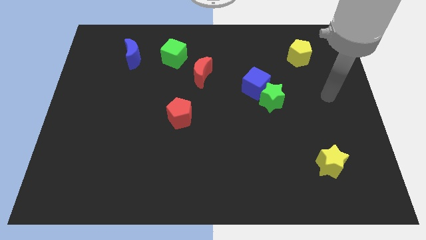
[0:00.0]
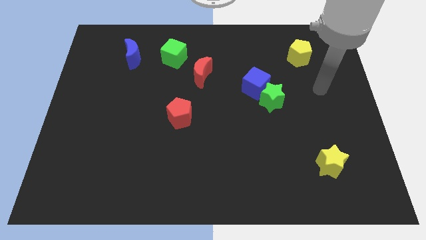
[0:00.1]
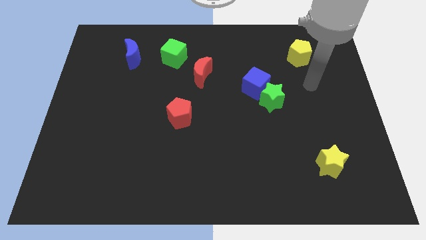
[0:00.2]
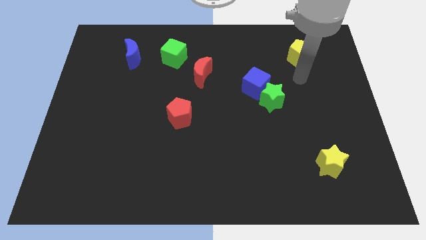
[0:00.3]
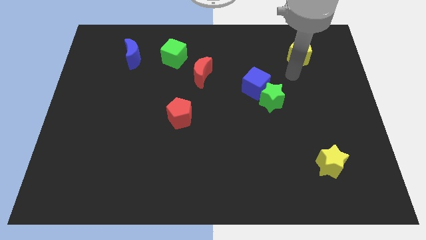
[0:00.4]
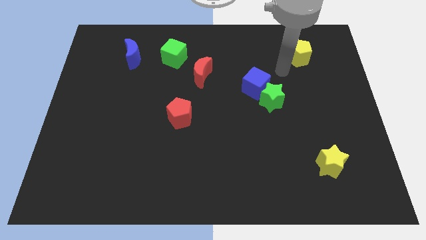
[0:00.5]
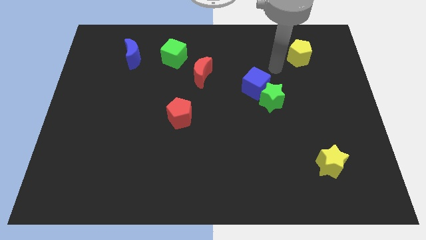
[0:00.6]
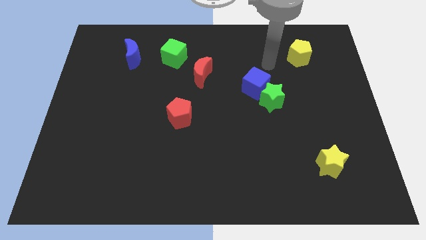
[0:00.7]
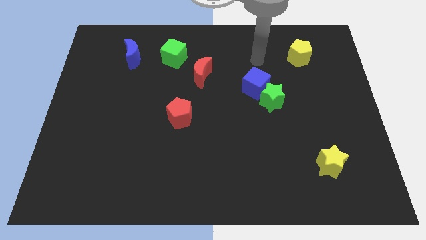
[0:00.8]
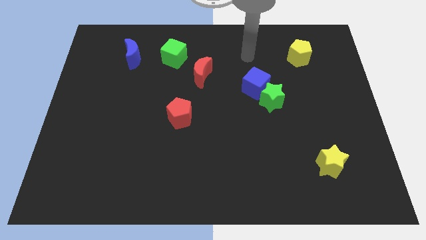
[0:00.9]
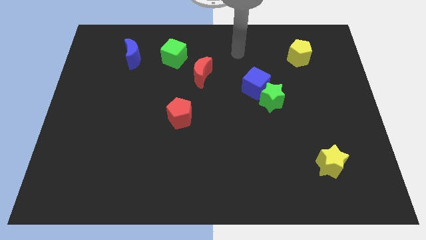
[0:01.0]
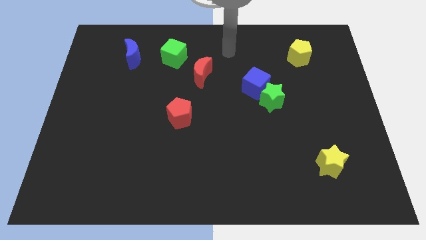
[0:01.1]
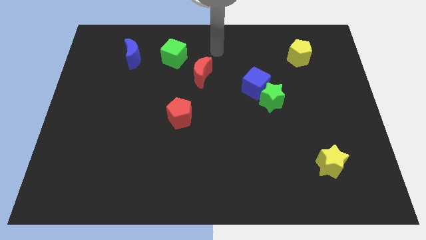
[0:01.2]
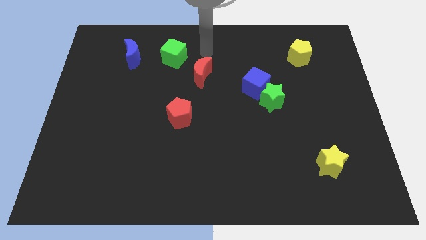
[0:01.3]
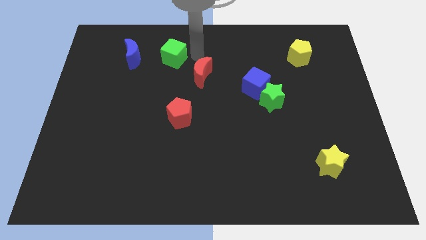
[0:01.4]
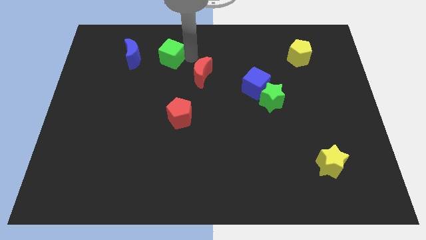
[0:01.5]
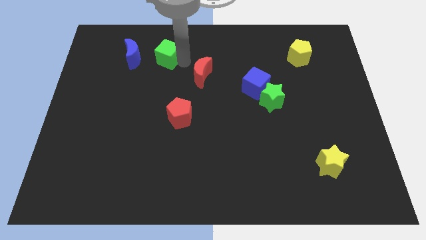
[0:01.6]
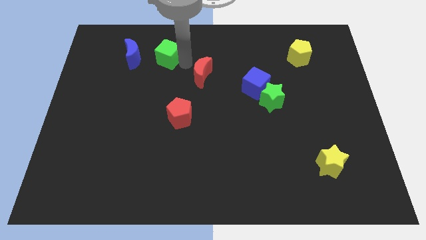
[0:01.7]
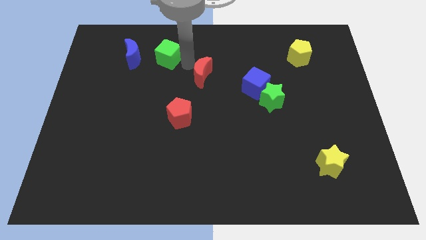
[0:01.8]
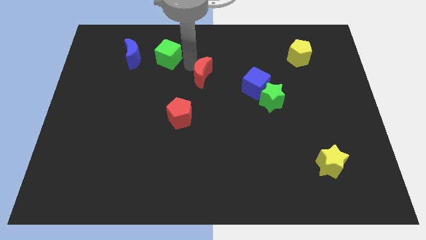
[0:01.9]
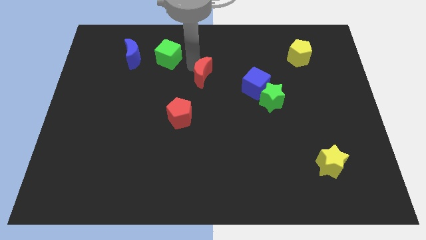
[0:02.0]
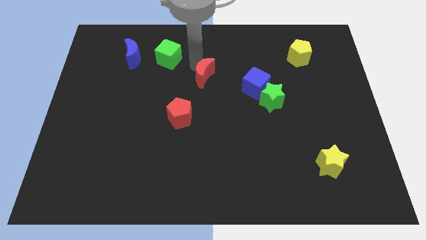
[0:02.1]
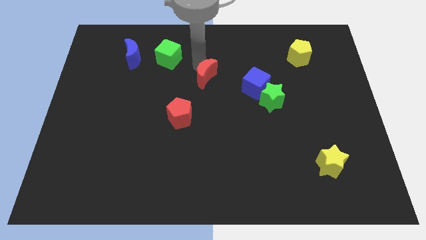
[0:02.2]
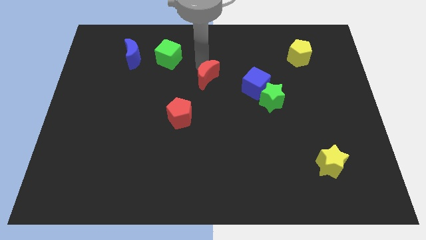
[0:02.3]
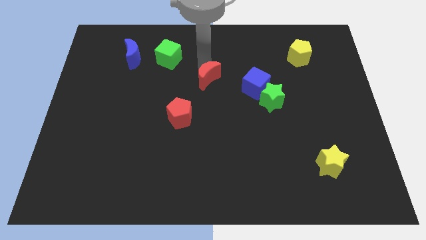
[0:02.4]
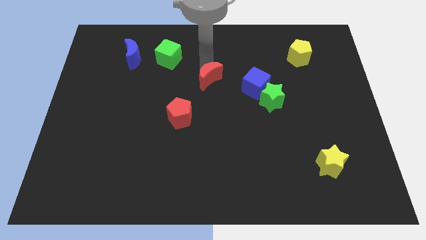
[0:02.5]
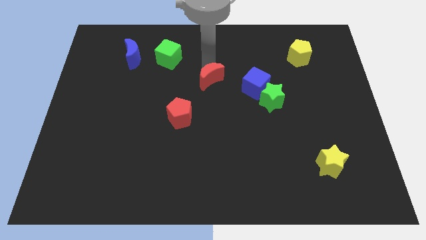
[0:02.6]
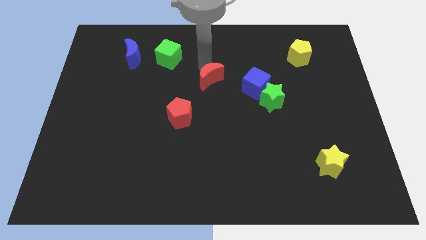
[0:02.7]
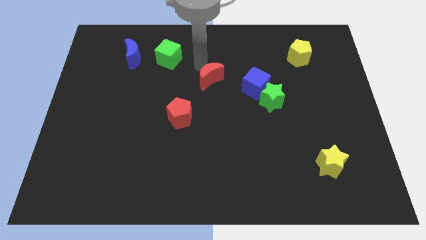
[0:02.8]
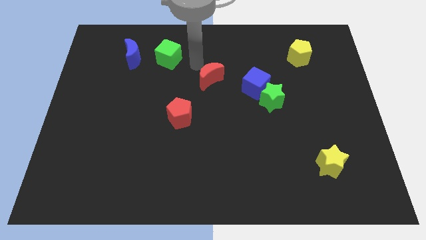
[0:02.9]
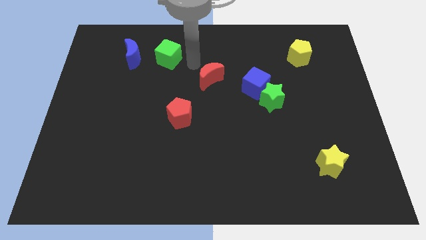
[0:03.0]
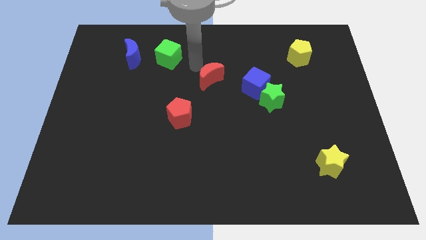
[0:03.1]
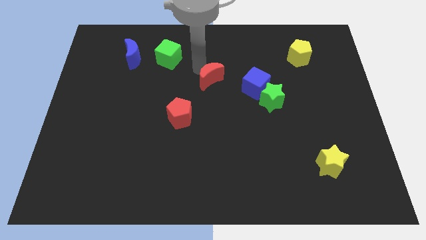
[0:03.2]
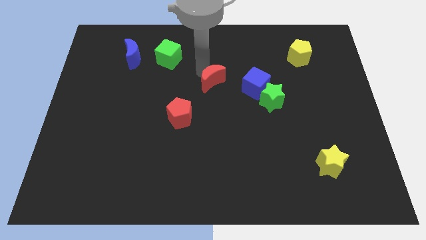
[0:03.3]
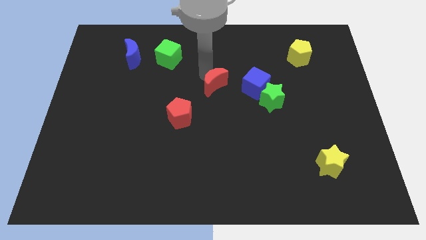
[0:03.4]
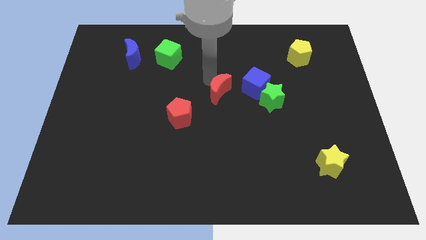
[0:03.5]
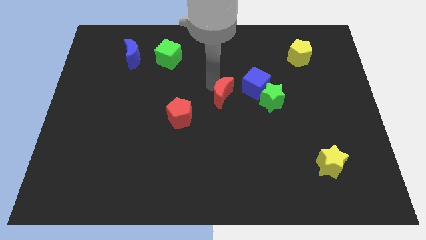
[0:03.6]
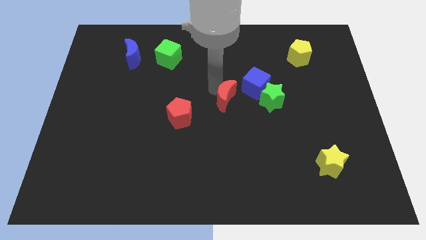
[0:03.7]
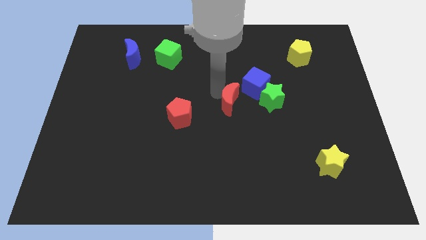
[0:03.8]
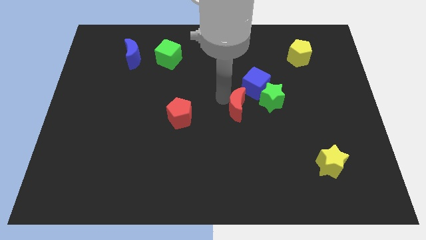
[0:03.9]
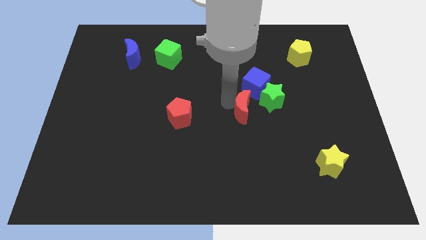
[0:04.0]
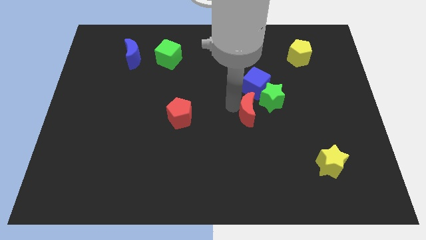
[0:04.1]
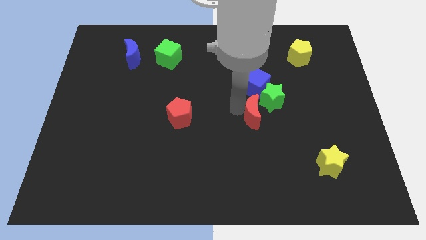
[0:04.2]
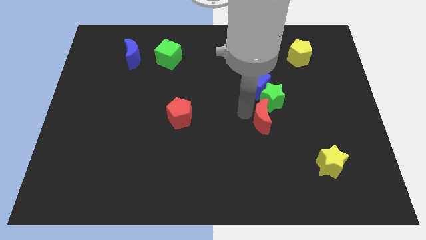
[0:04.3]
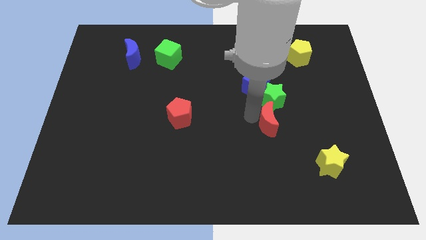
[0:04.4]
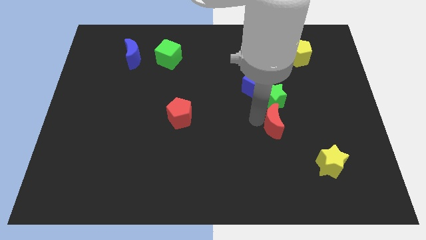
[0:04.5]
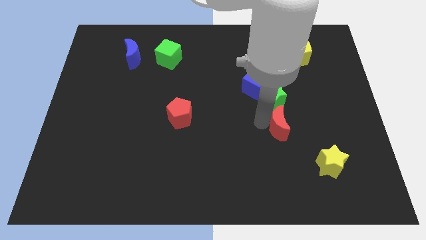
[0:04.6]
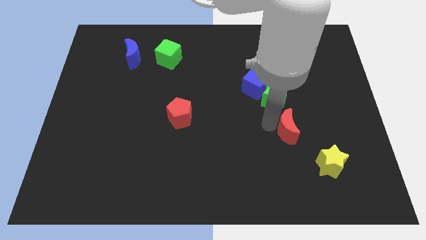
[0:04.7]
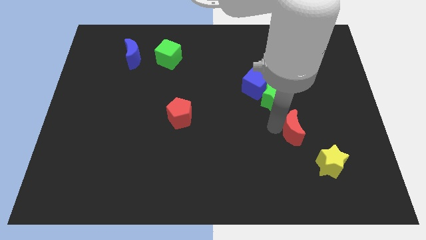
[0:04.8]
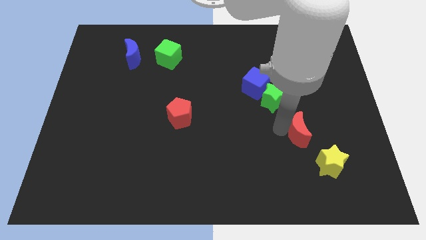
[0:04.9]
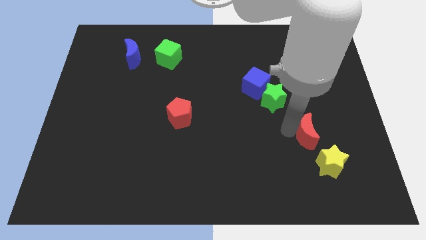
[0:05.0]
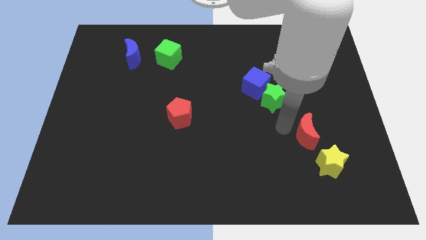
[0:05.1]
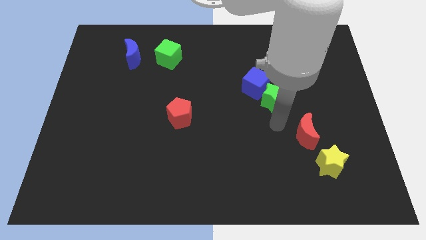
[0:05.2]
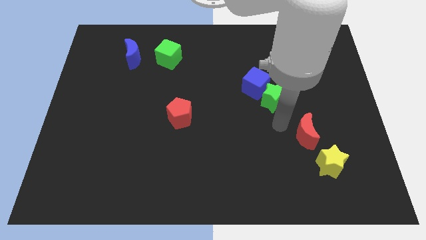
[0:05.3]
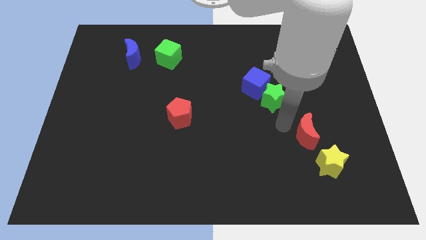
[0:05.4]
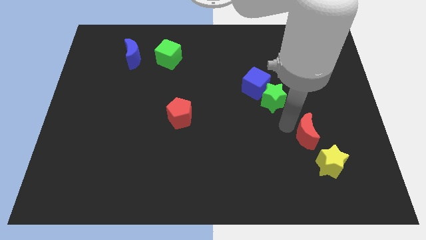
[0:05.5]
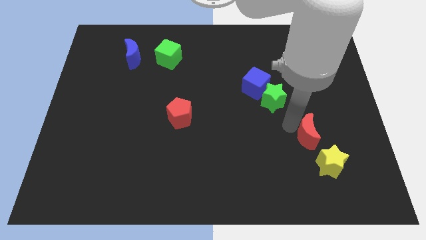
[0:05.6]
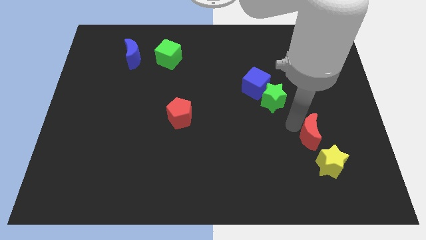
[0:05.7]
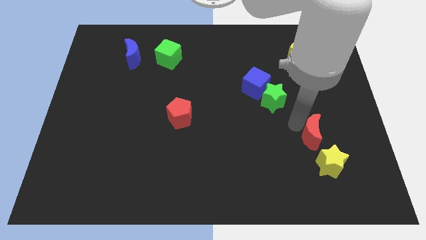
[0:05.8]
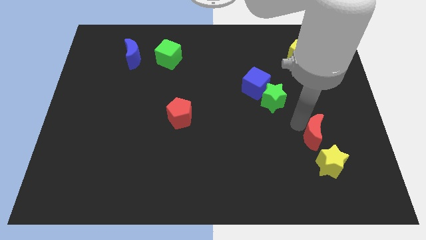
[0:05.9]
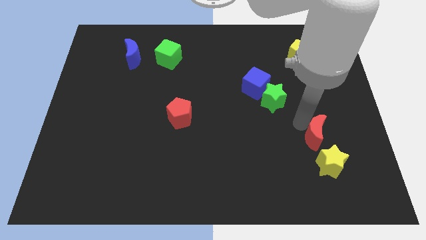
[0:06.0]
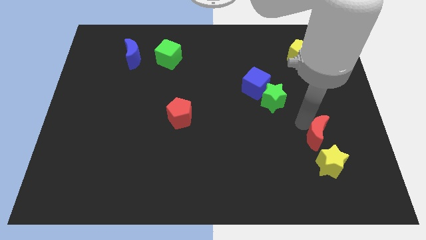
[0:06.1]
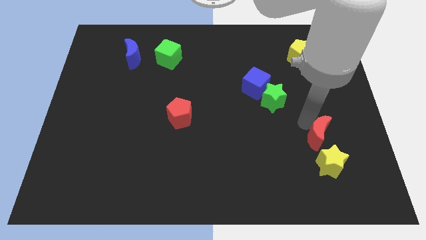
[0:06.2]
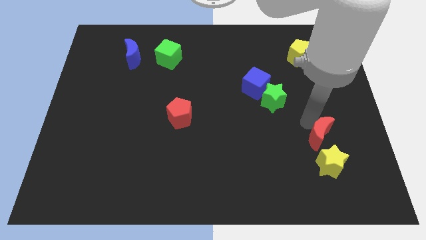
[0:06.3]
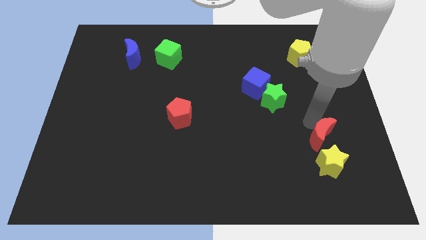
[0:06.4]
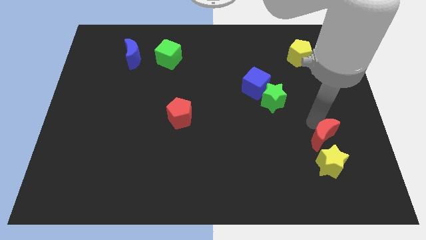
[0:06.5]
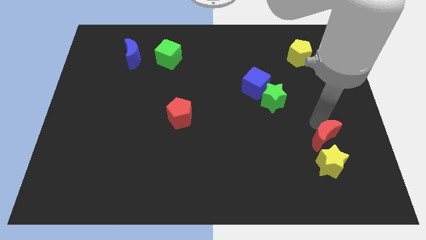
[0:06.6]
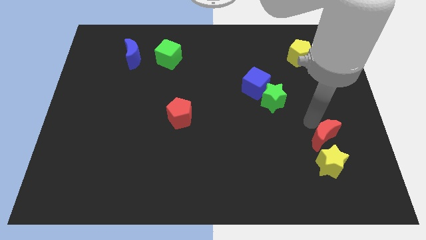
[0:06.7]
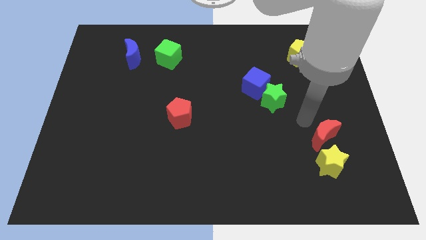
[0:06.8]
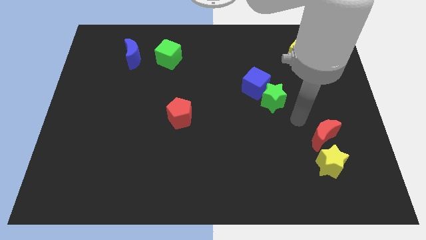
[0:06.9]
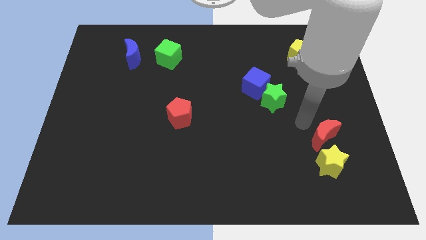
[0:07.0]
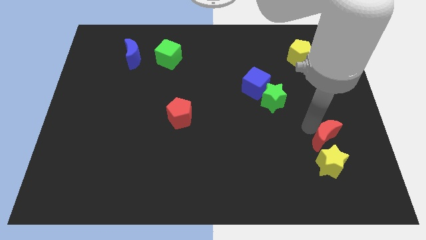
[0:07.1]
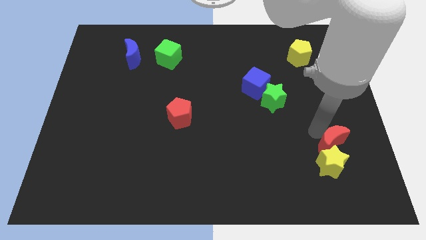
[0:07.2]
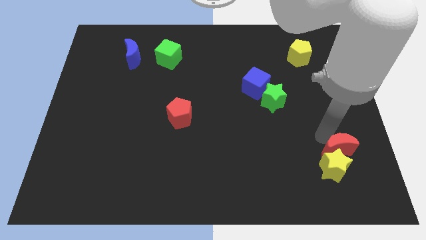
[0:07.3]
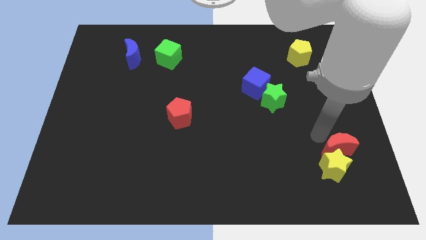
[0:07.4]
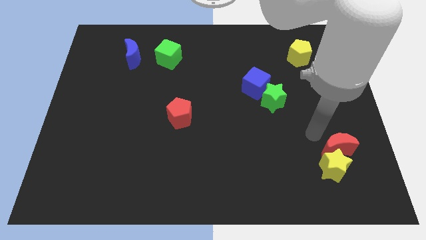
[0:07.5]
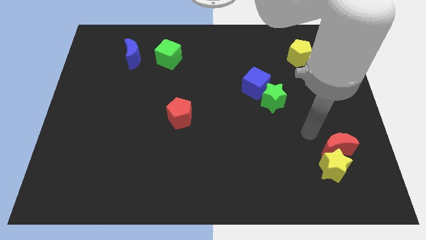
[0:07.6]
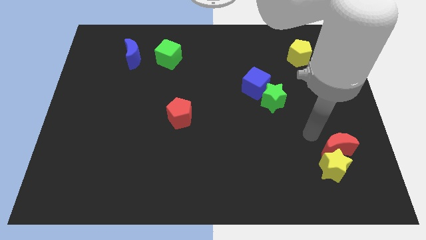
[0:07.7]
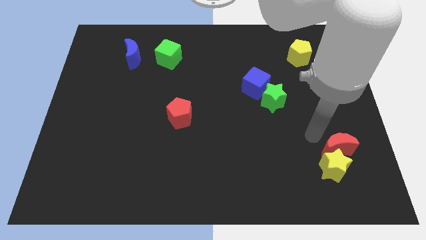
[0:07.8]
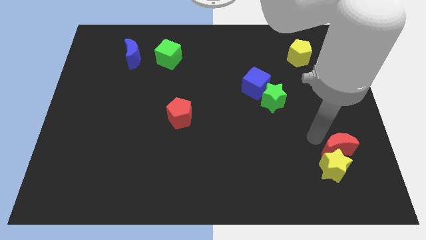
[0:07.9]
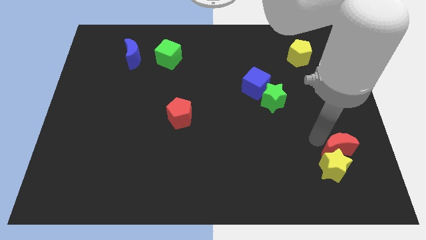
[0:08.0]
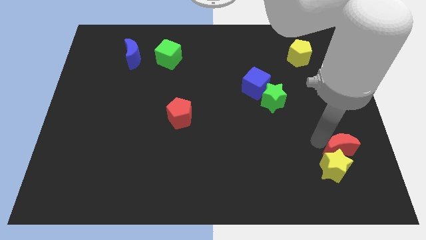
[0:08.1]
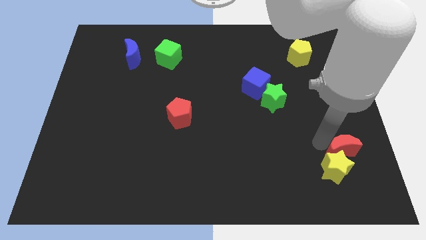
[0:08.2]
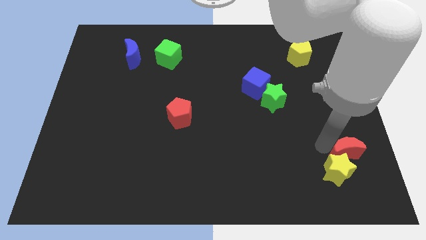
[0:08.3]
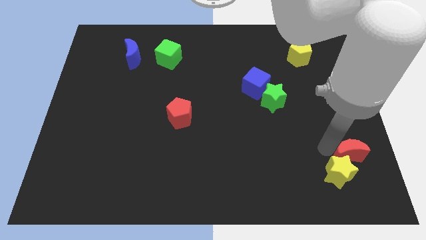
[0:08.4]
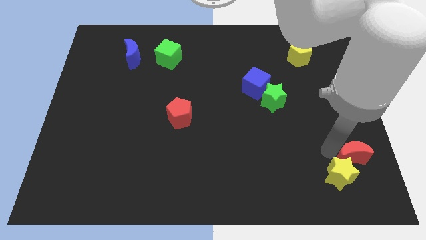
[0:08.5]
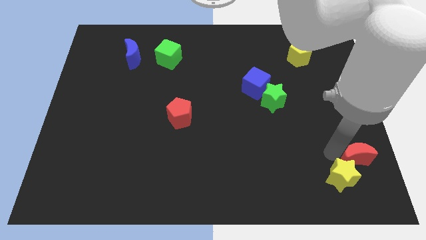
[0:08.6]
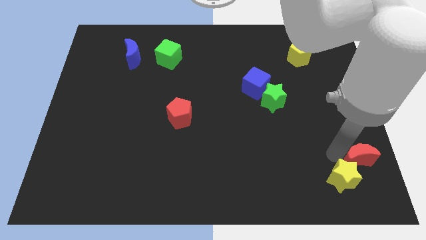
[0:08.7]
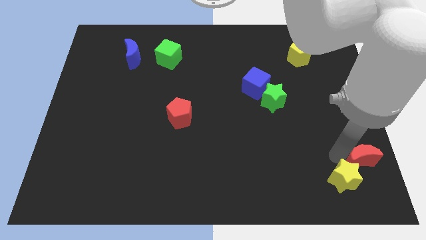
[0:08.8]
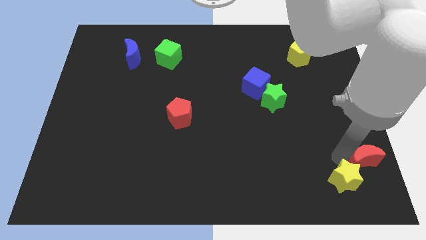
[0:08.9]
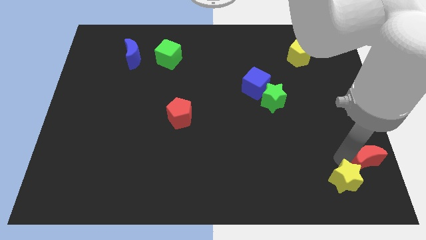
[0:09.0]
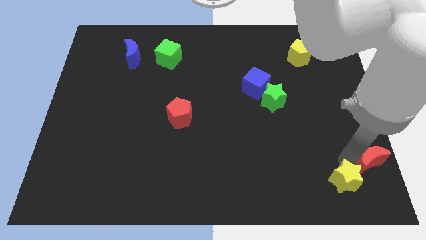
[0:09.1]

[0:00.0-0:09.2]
move the red moon to the bottom right
